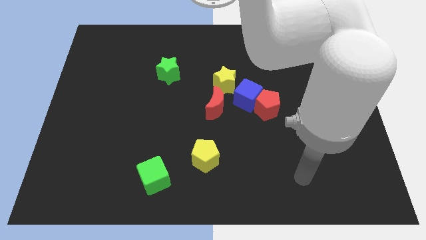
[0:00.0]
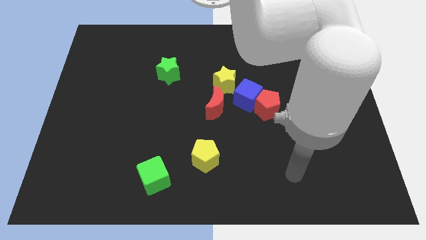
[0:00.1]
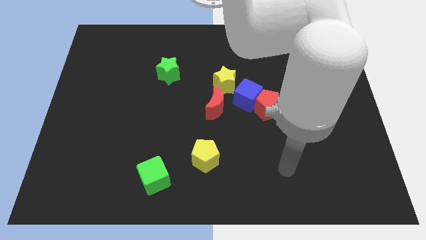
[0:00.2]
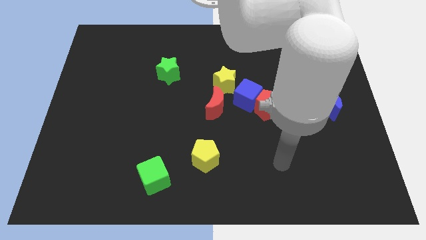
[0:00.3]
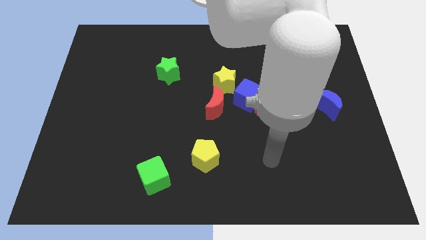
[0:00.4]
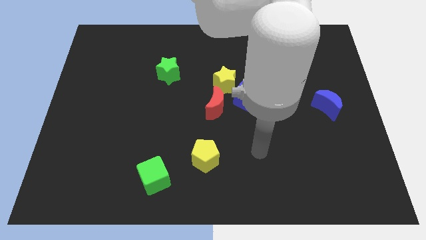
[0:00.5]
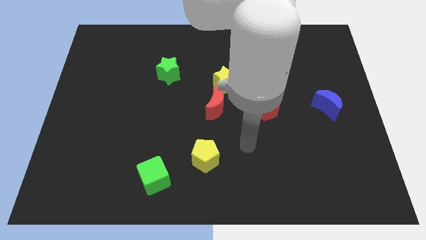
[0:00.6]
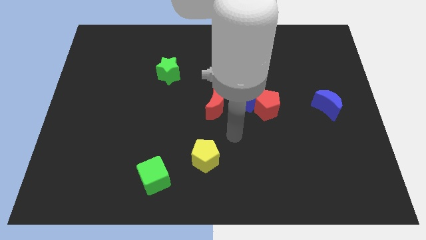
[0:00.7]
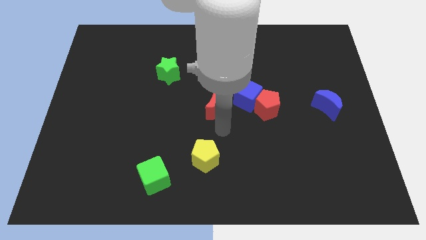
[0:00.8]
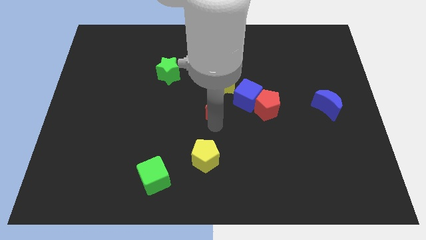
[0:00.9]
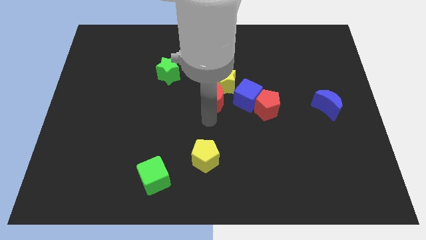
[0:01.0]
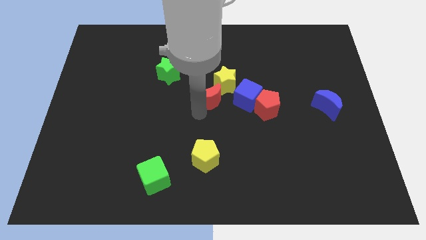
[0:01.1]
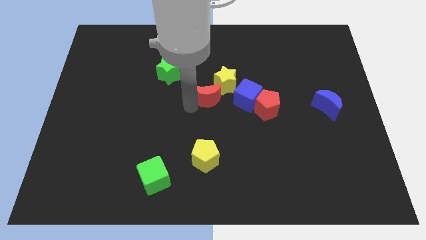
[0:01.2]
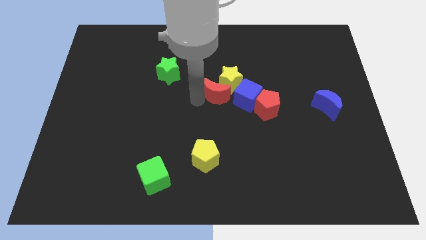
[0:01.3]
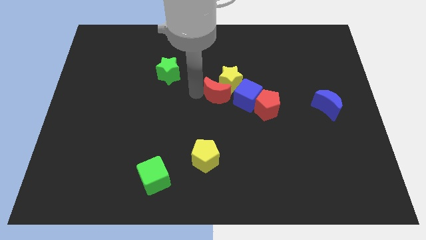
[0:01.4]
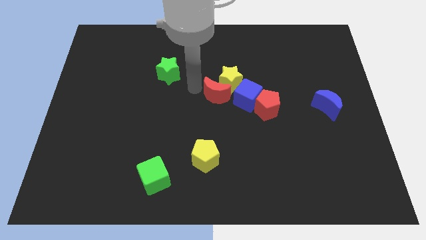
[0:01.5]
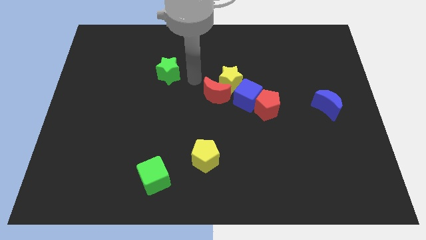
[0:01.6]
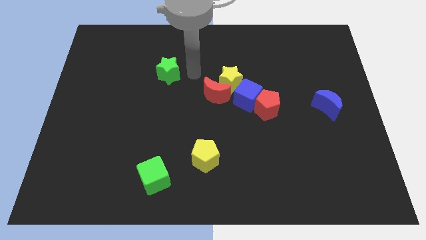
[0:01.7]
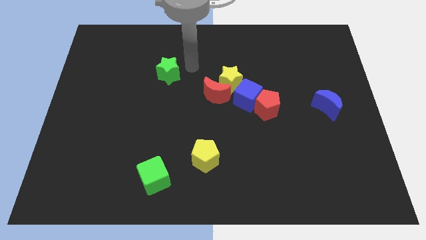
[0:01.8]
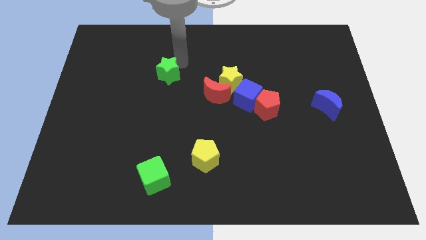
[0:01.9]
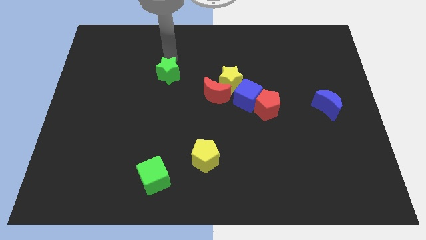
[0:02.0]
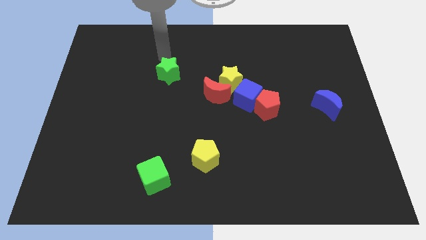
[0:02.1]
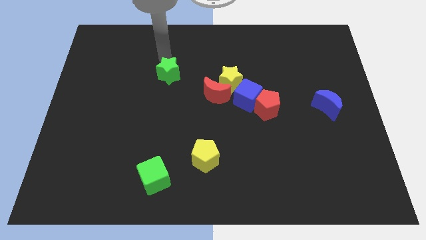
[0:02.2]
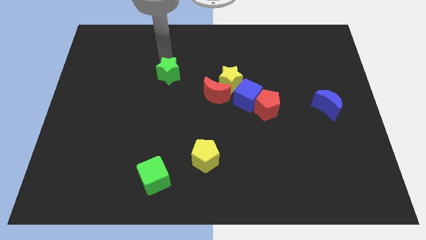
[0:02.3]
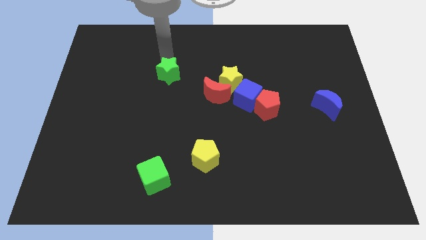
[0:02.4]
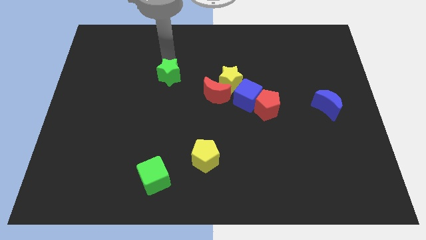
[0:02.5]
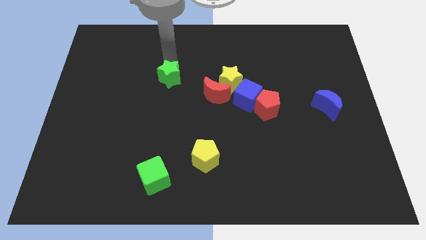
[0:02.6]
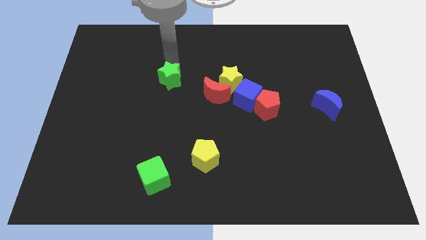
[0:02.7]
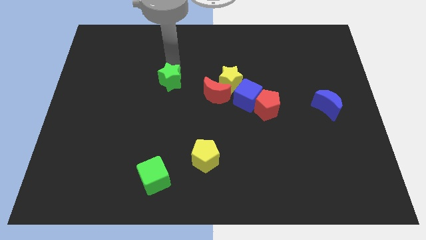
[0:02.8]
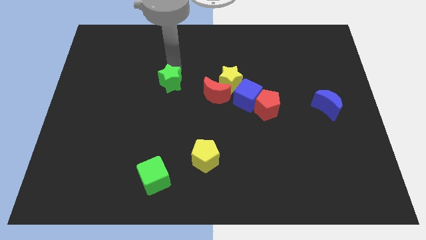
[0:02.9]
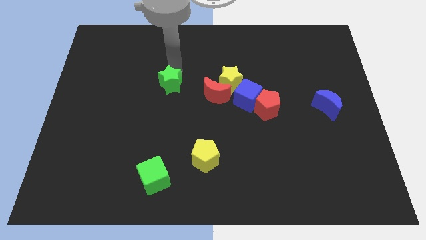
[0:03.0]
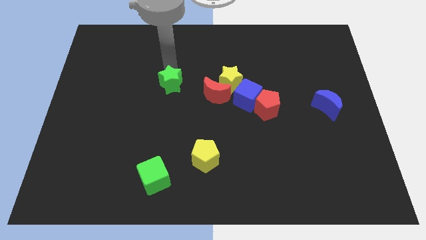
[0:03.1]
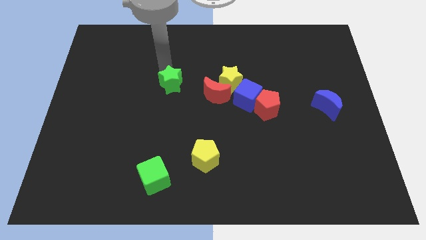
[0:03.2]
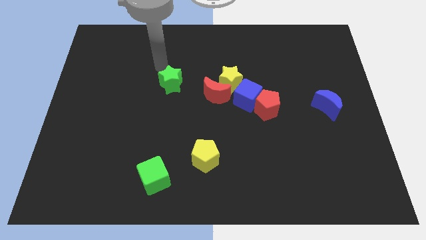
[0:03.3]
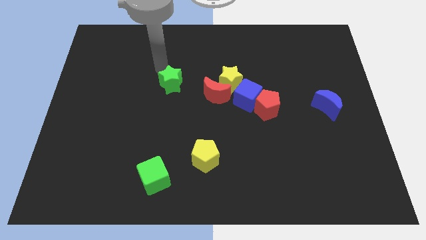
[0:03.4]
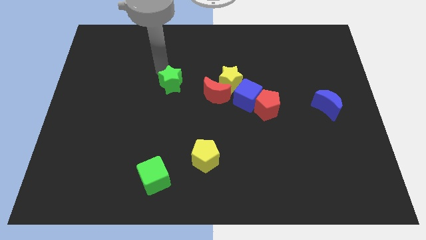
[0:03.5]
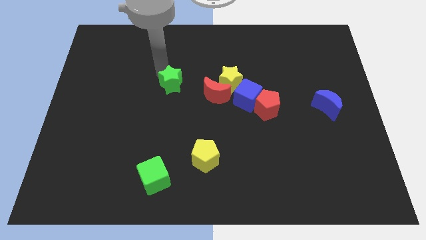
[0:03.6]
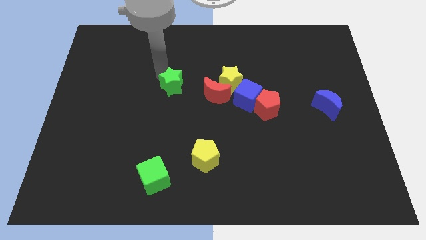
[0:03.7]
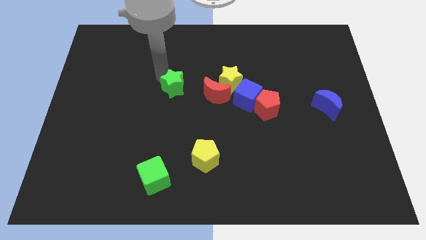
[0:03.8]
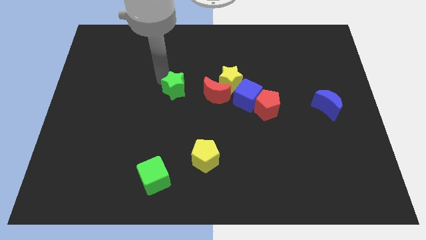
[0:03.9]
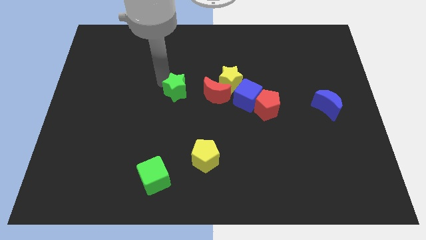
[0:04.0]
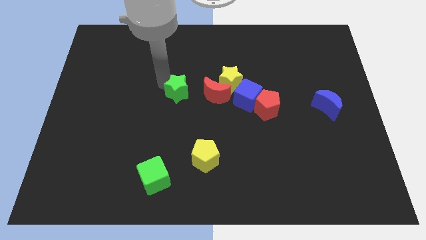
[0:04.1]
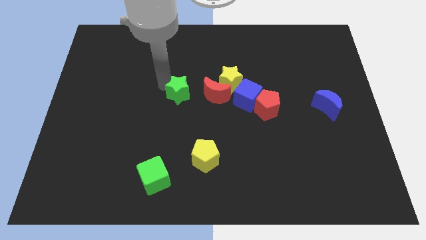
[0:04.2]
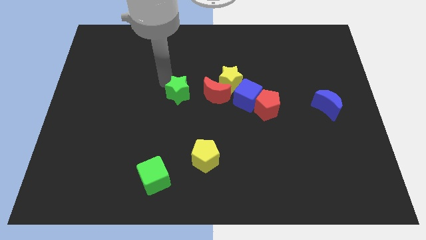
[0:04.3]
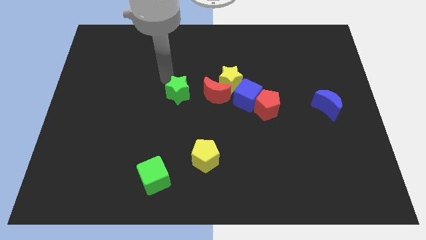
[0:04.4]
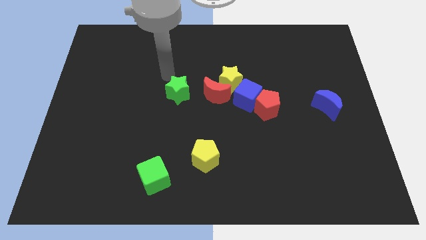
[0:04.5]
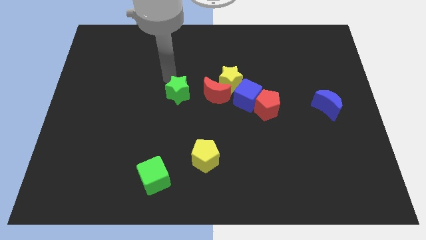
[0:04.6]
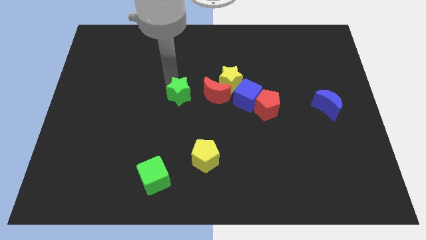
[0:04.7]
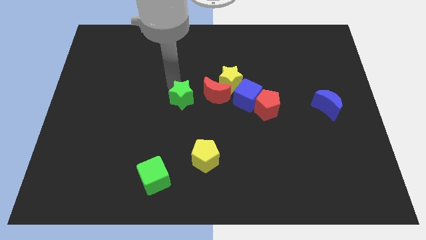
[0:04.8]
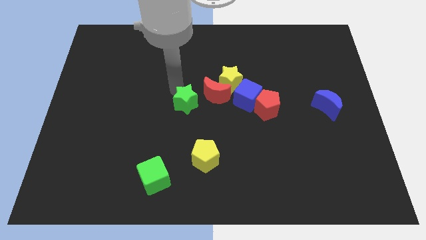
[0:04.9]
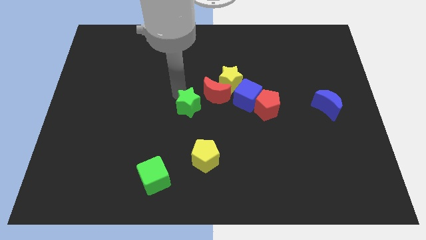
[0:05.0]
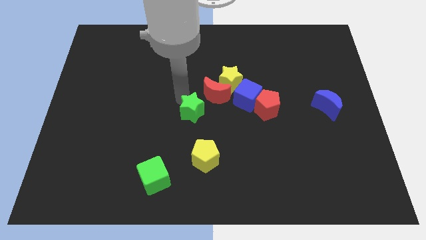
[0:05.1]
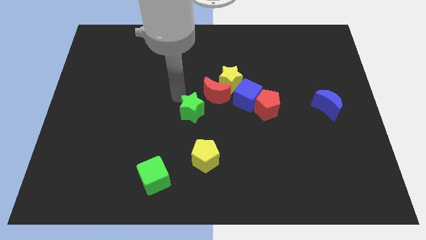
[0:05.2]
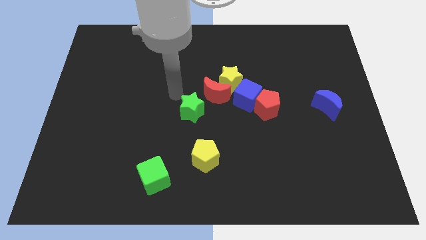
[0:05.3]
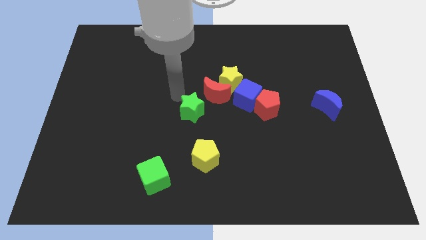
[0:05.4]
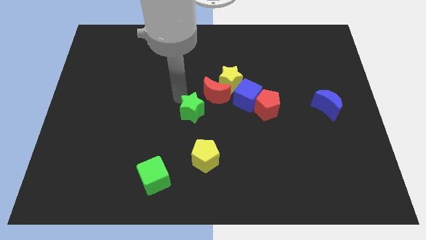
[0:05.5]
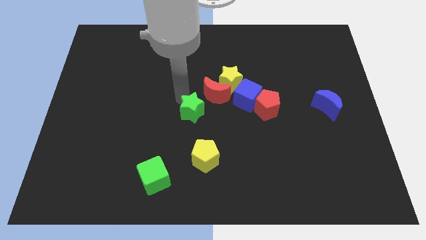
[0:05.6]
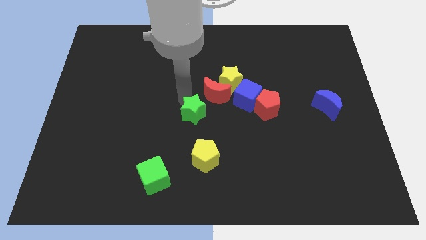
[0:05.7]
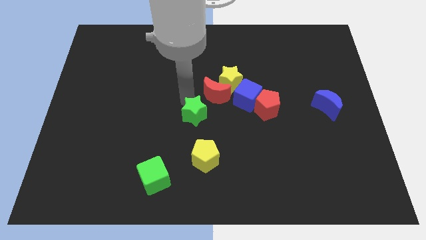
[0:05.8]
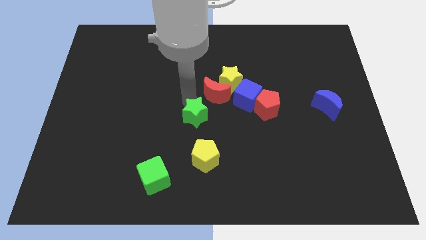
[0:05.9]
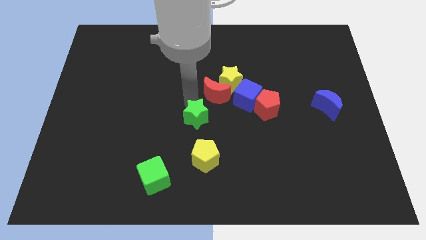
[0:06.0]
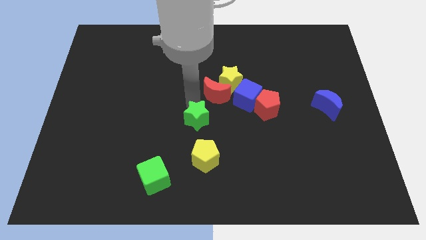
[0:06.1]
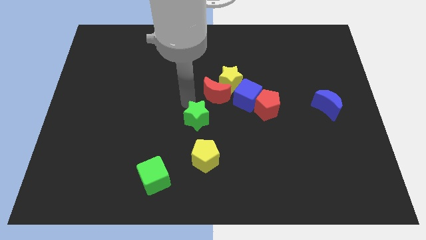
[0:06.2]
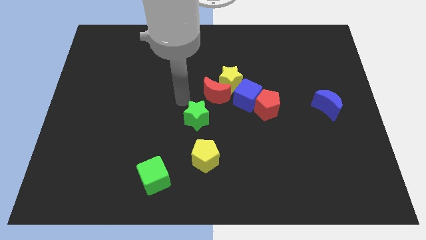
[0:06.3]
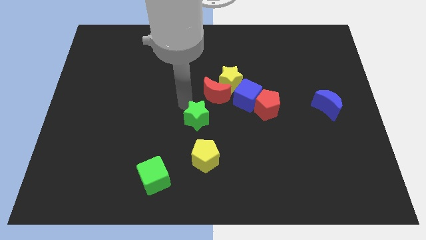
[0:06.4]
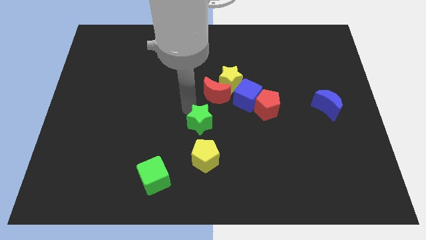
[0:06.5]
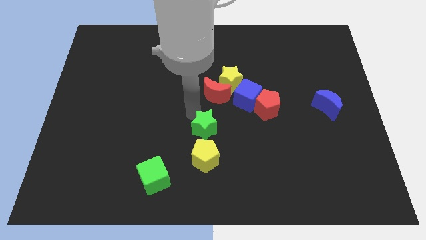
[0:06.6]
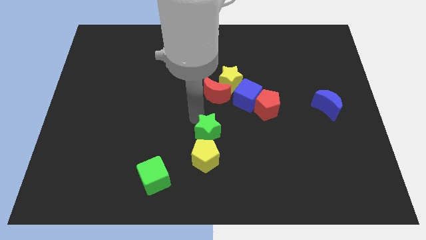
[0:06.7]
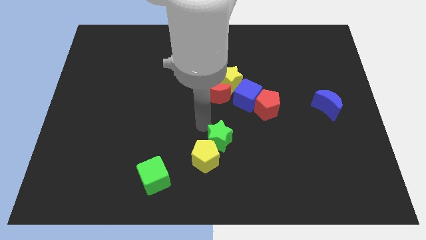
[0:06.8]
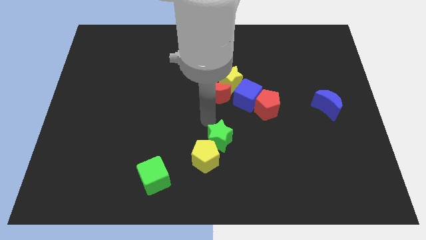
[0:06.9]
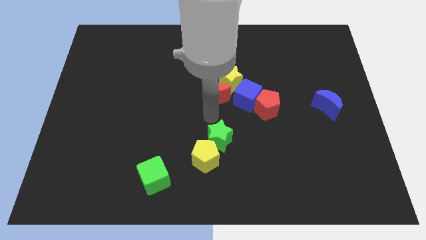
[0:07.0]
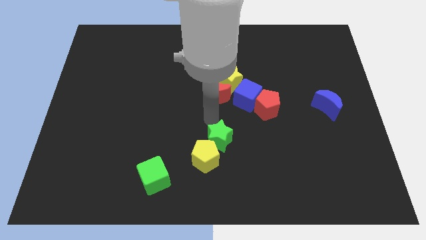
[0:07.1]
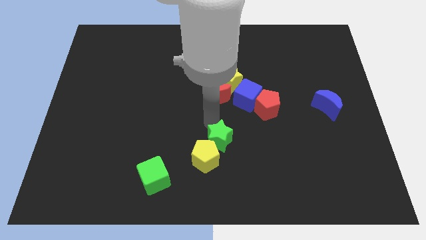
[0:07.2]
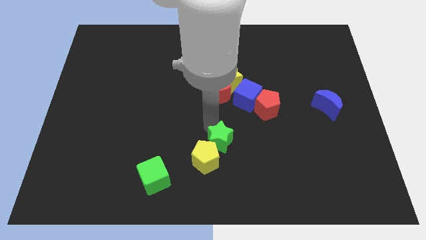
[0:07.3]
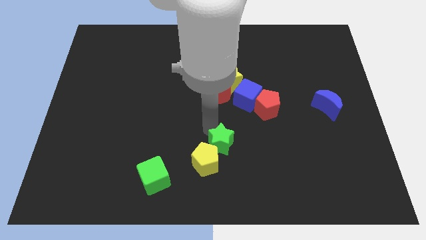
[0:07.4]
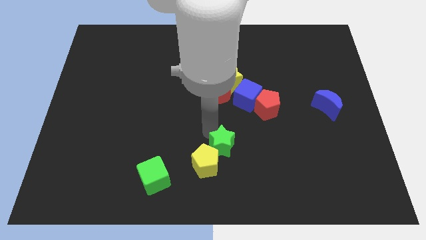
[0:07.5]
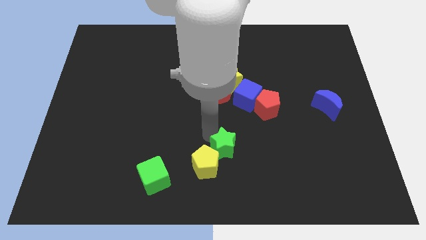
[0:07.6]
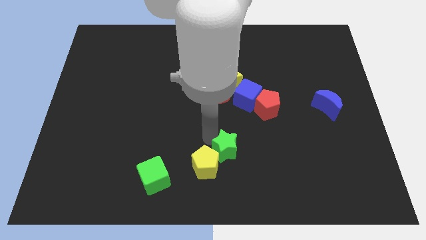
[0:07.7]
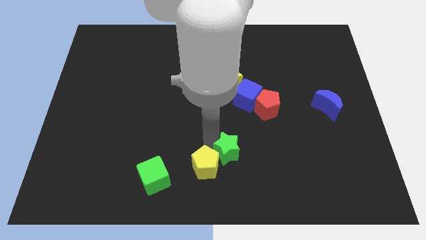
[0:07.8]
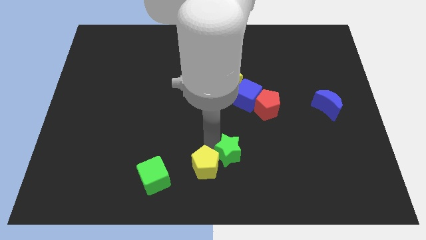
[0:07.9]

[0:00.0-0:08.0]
slide the green star to the bottom side
